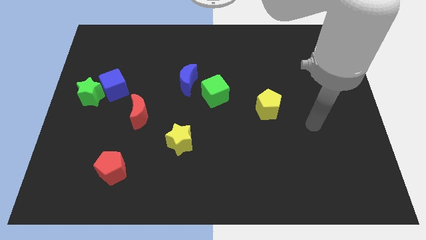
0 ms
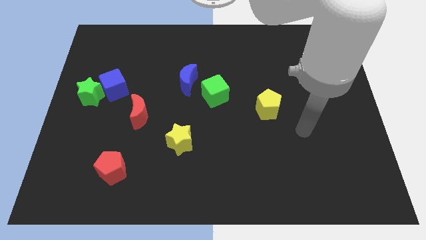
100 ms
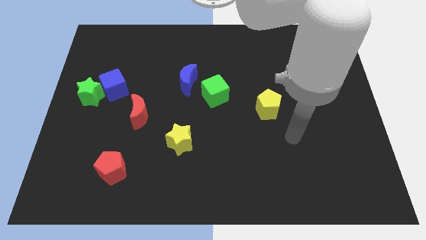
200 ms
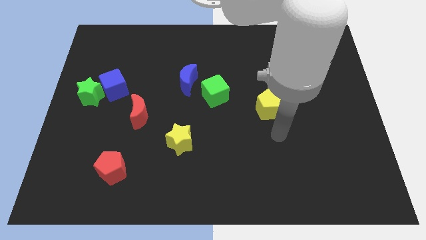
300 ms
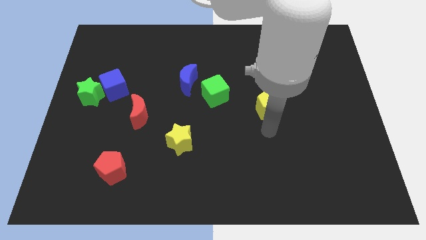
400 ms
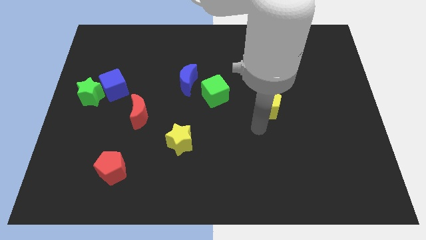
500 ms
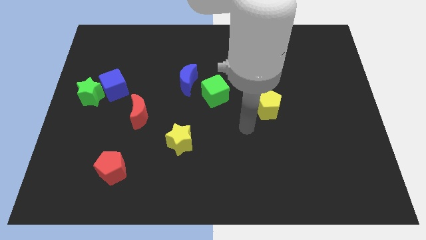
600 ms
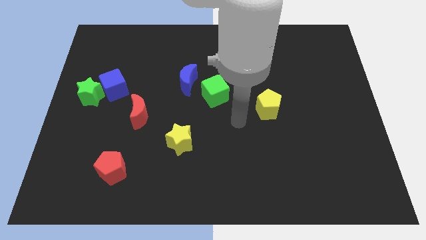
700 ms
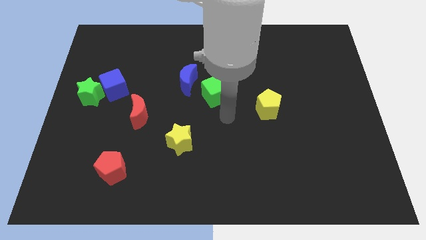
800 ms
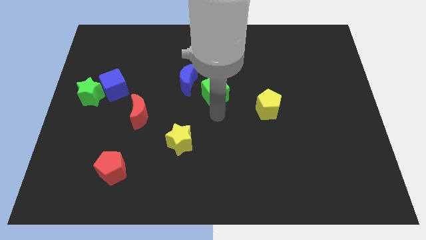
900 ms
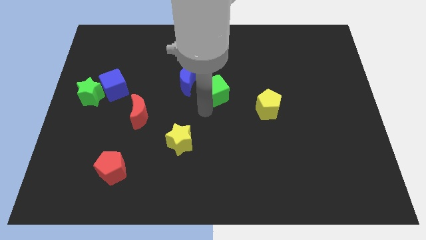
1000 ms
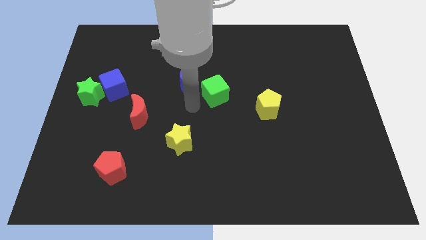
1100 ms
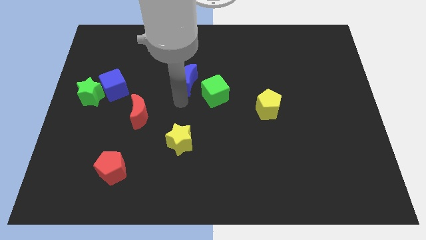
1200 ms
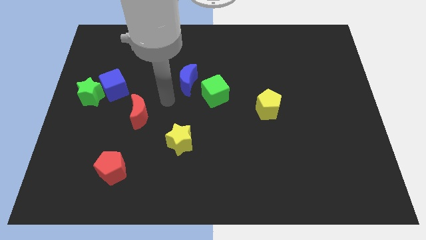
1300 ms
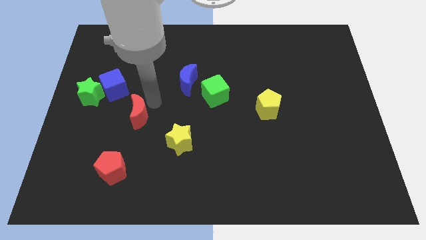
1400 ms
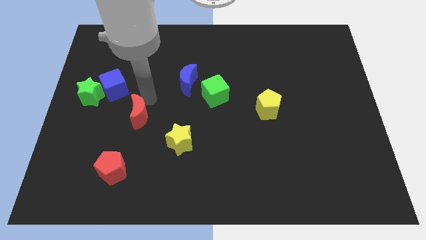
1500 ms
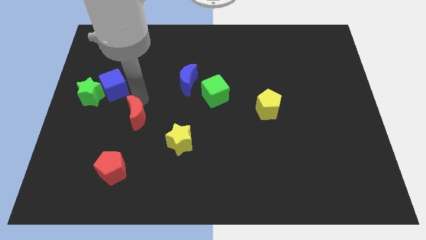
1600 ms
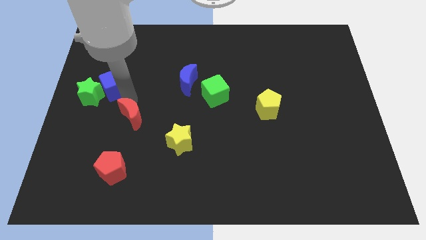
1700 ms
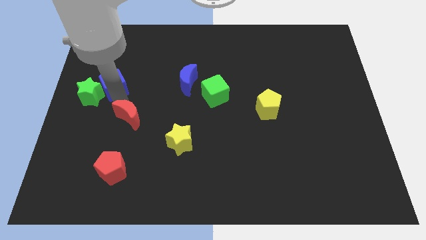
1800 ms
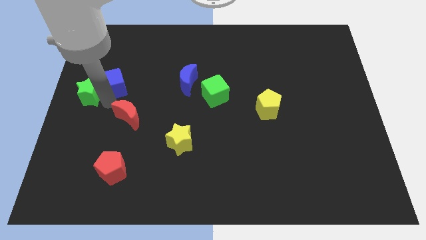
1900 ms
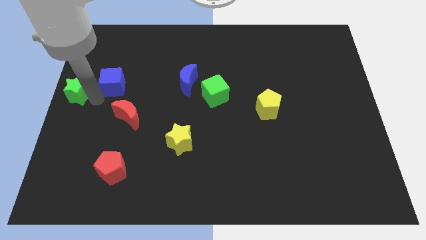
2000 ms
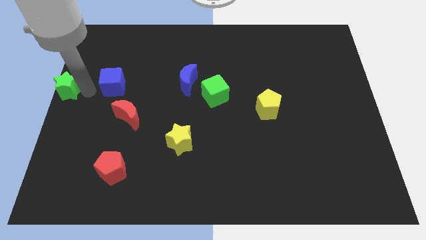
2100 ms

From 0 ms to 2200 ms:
pull the blue cube apart from the green star

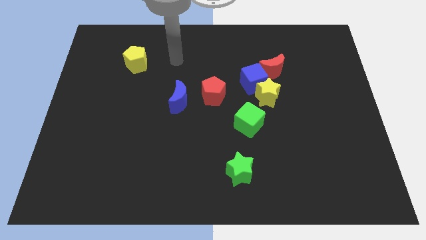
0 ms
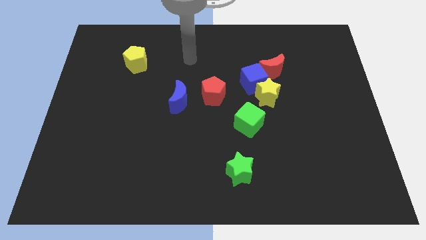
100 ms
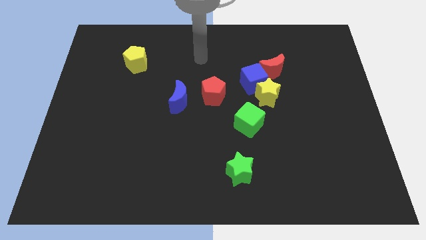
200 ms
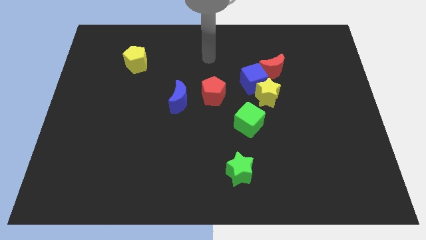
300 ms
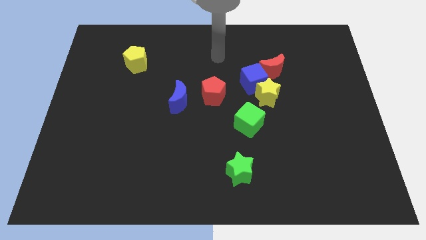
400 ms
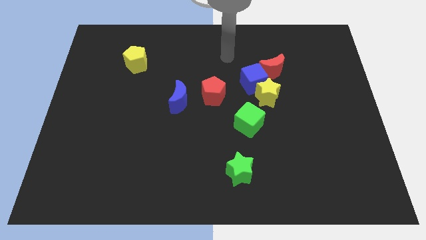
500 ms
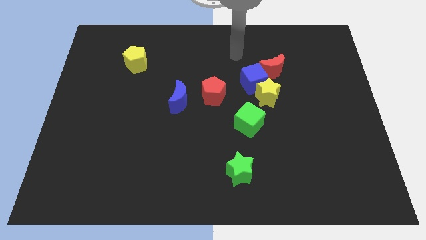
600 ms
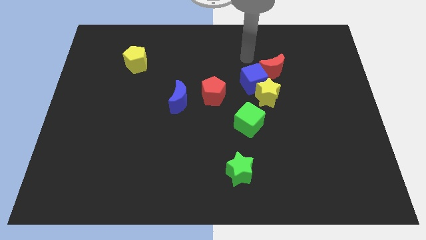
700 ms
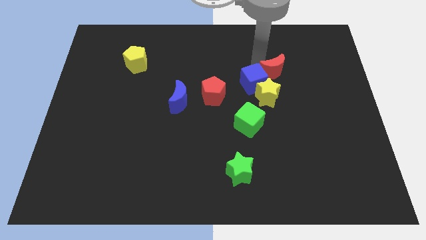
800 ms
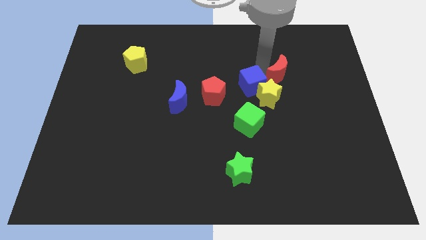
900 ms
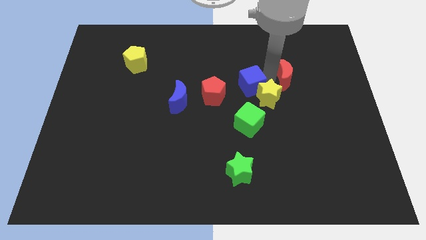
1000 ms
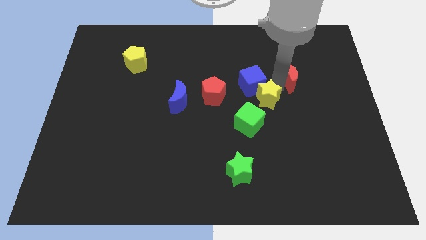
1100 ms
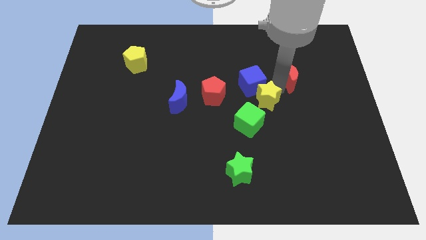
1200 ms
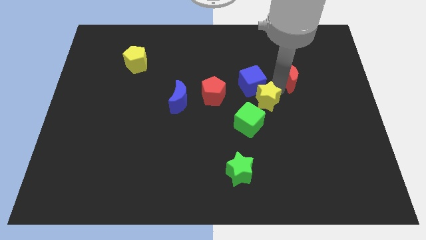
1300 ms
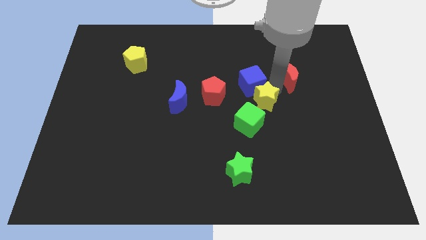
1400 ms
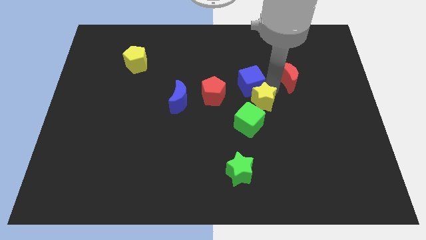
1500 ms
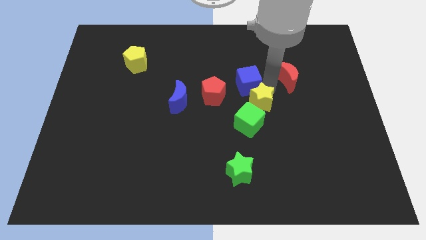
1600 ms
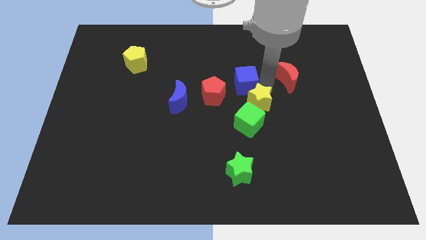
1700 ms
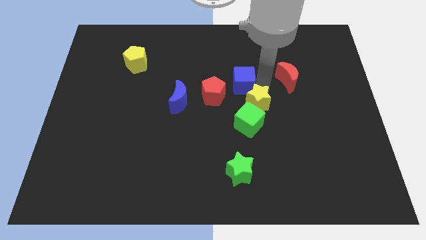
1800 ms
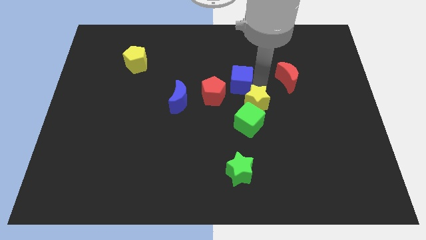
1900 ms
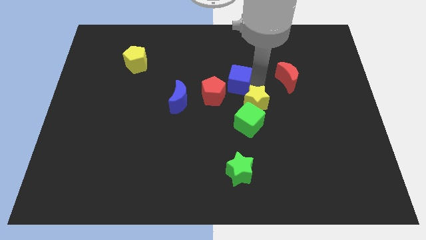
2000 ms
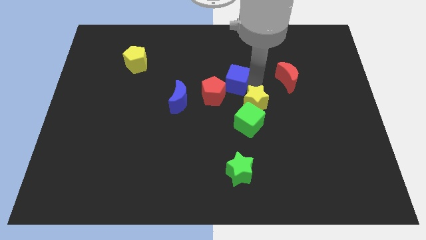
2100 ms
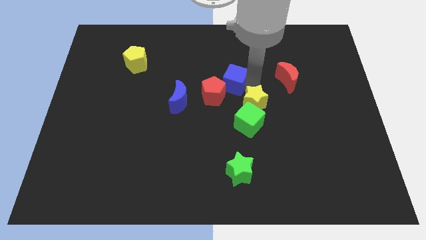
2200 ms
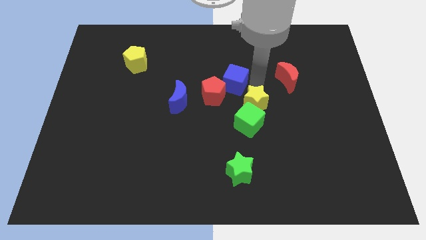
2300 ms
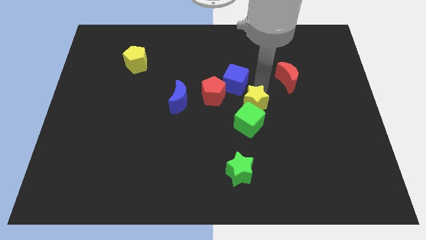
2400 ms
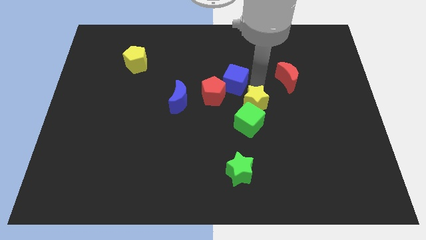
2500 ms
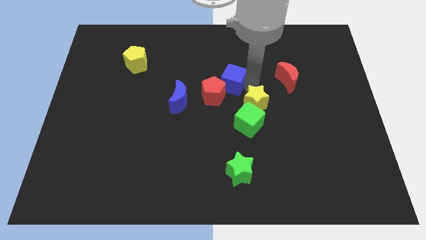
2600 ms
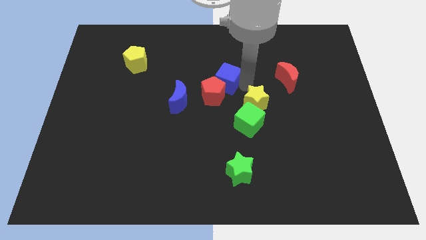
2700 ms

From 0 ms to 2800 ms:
move the blue cube away from the yellow star and red moon

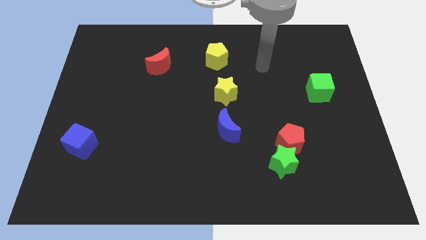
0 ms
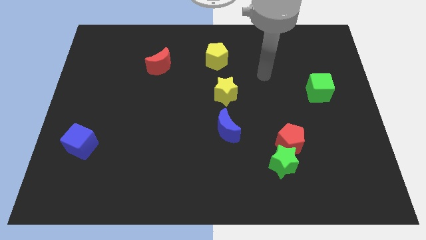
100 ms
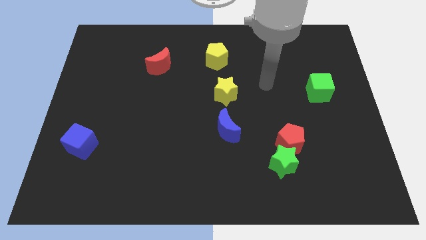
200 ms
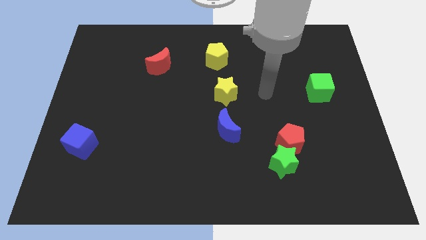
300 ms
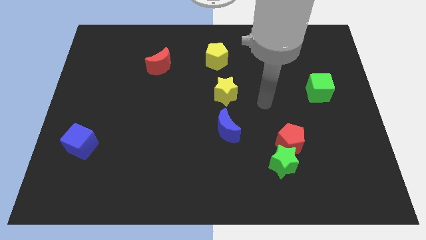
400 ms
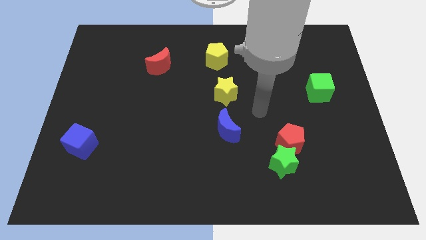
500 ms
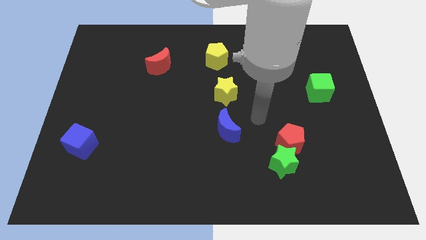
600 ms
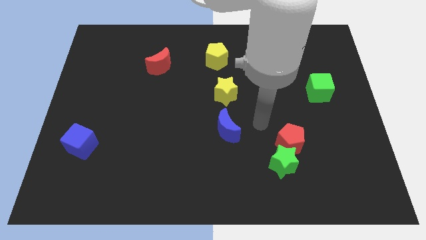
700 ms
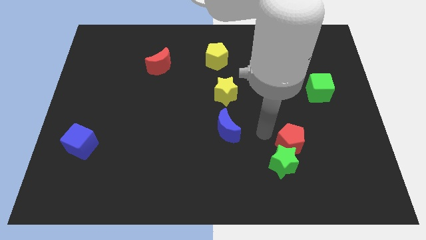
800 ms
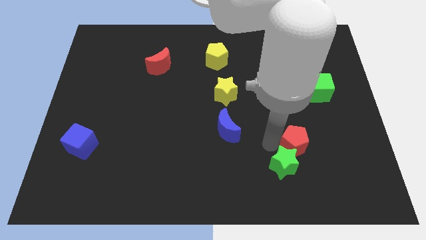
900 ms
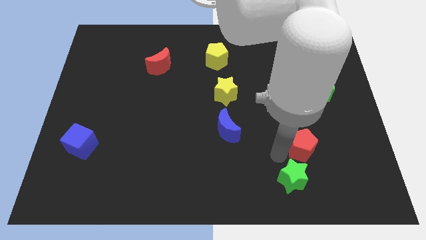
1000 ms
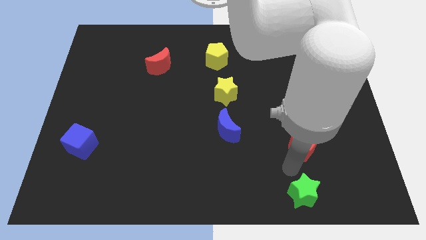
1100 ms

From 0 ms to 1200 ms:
move the red pentagon away from the green star

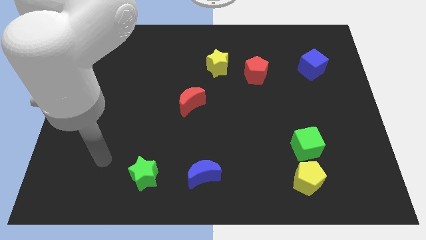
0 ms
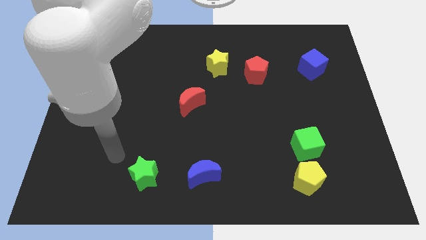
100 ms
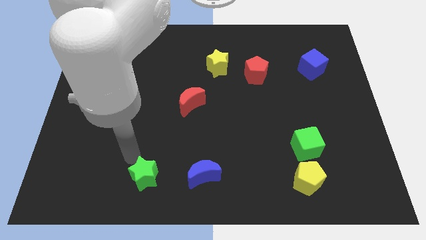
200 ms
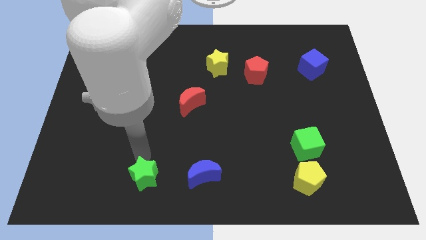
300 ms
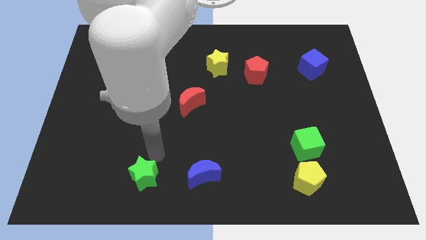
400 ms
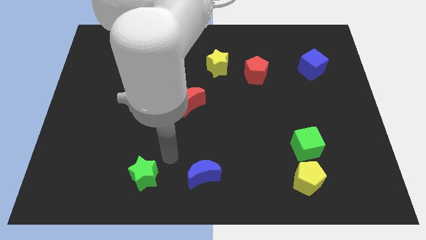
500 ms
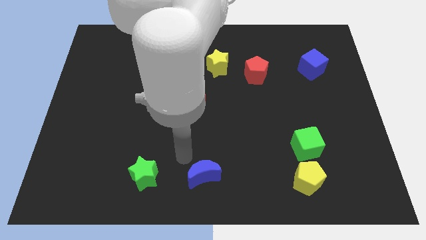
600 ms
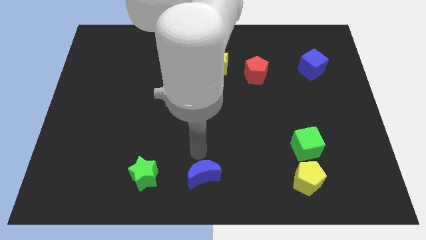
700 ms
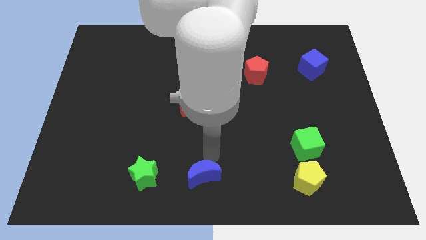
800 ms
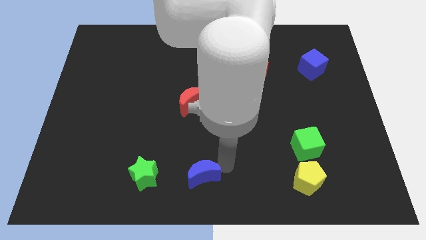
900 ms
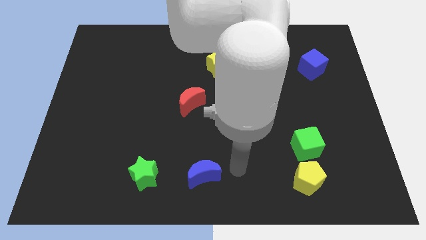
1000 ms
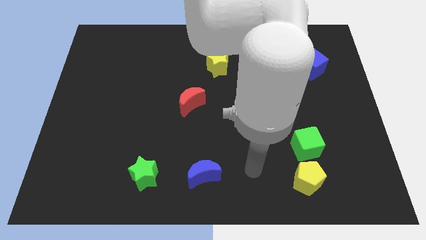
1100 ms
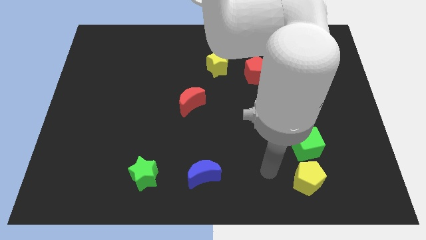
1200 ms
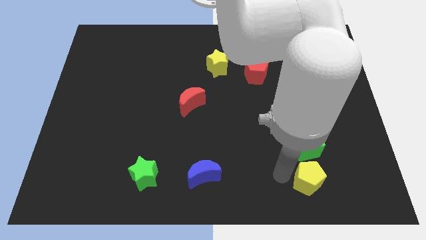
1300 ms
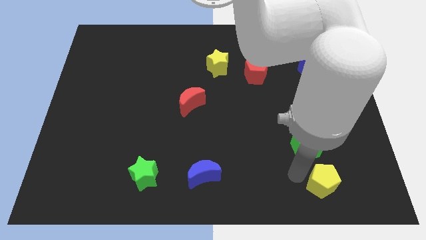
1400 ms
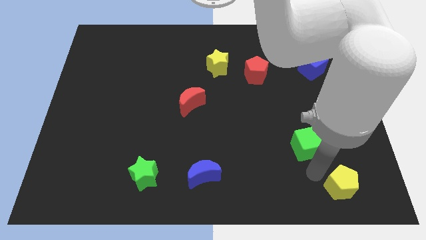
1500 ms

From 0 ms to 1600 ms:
separate the green cube from the yellow pentagon

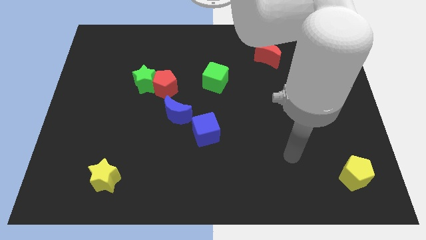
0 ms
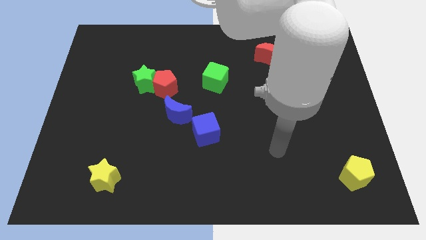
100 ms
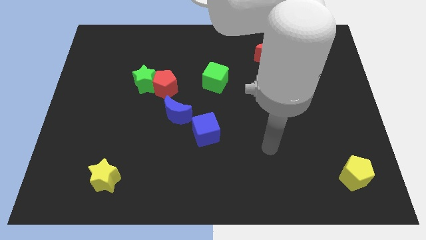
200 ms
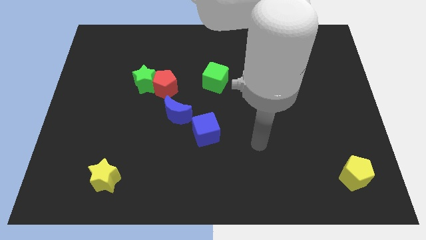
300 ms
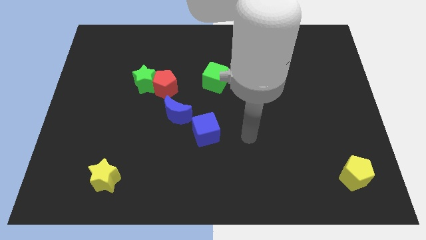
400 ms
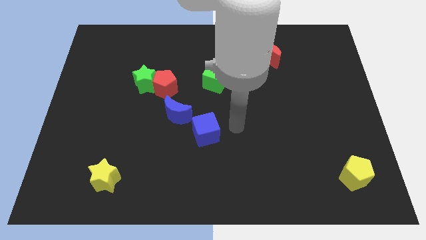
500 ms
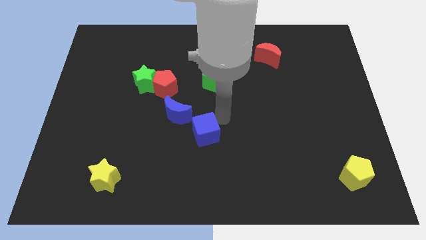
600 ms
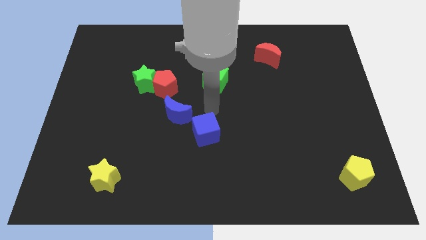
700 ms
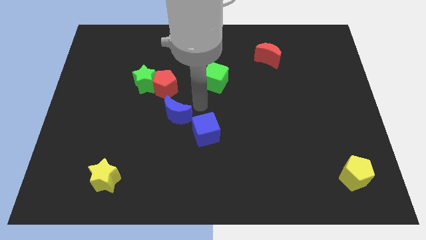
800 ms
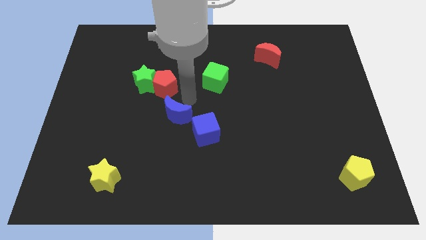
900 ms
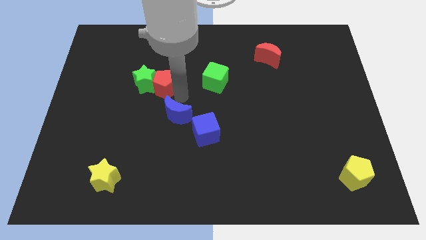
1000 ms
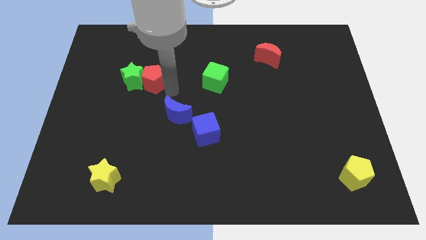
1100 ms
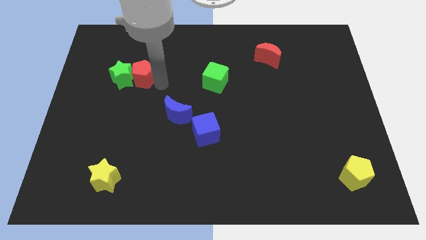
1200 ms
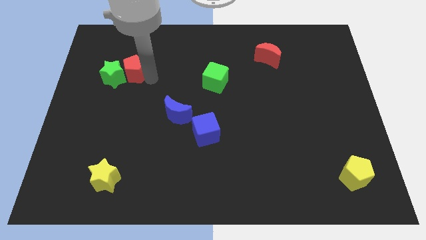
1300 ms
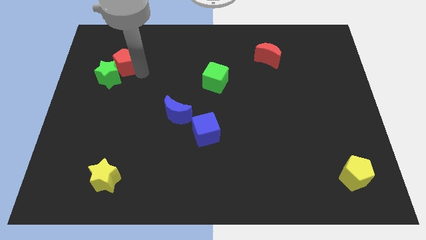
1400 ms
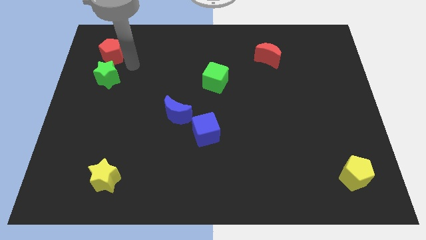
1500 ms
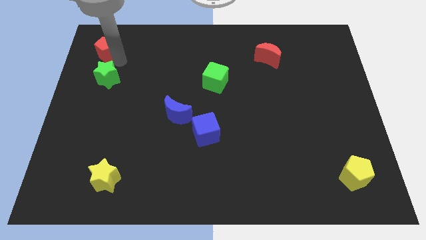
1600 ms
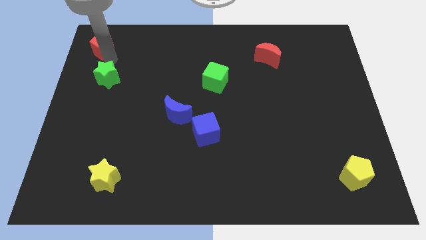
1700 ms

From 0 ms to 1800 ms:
pull the green star apart from the red pentagon
